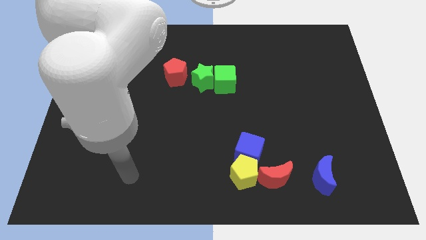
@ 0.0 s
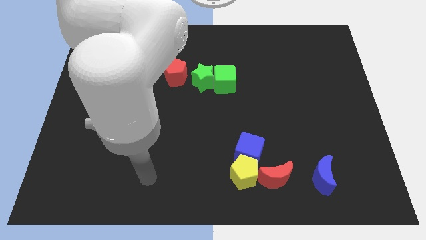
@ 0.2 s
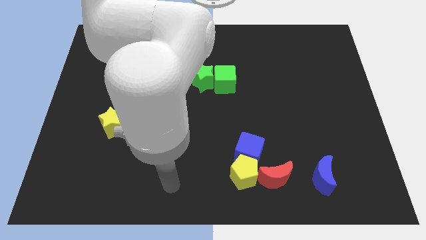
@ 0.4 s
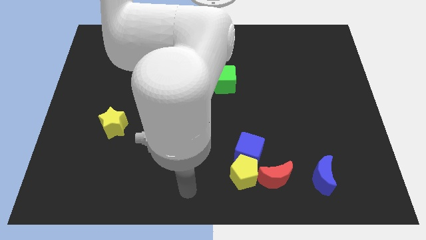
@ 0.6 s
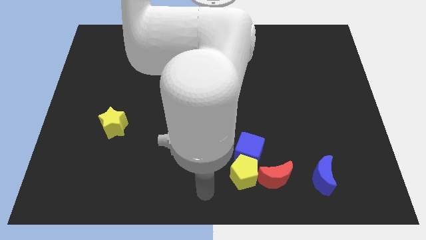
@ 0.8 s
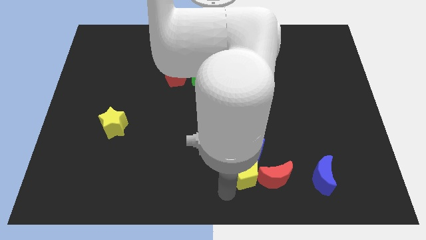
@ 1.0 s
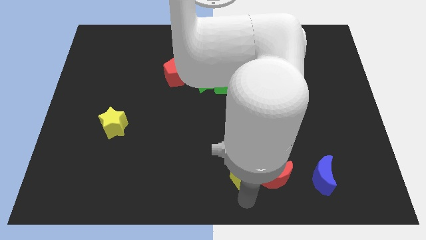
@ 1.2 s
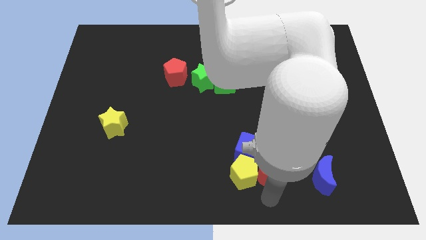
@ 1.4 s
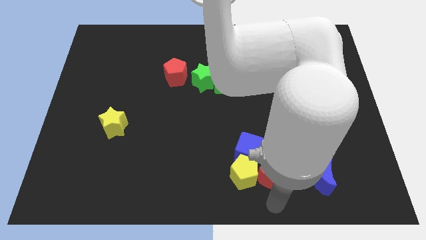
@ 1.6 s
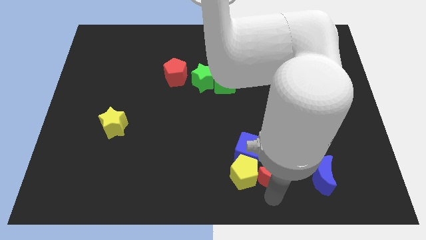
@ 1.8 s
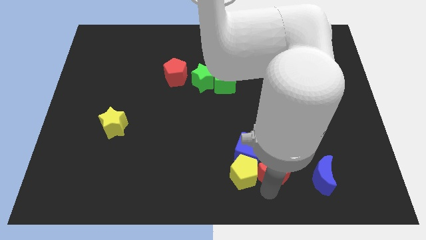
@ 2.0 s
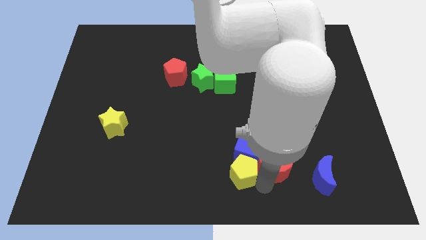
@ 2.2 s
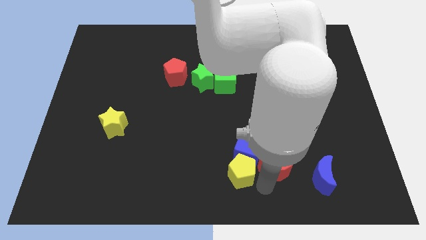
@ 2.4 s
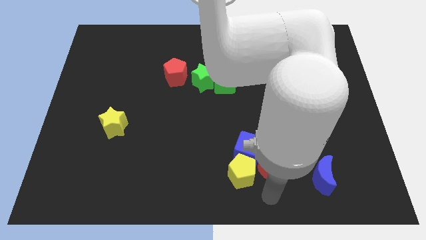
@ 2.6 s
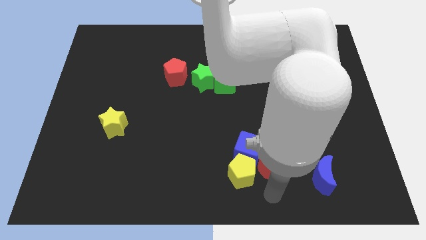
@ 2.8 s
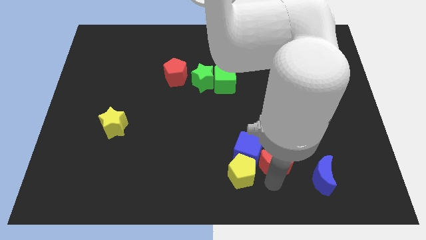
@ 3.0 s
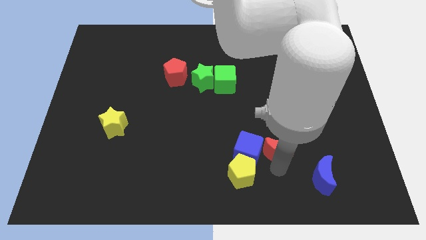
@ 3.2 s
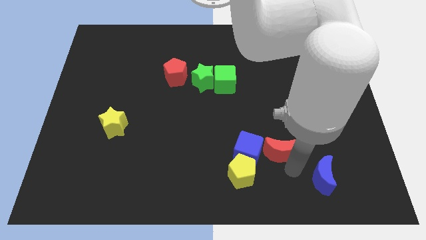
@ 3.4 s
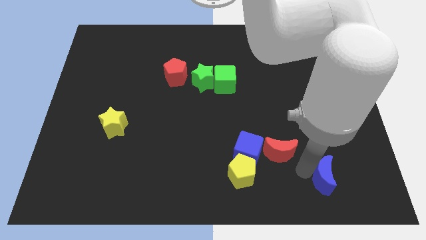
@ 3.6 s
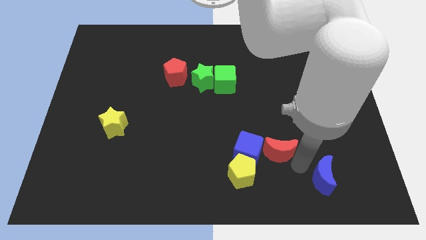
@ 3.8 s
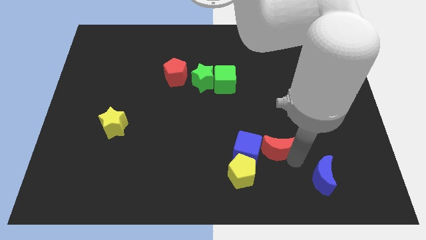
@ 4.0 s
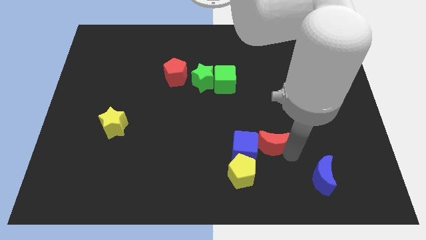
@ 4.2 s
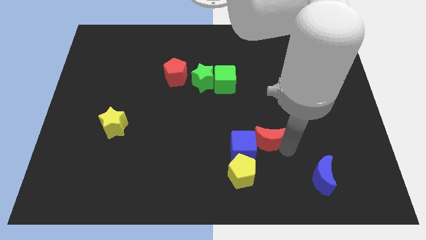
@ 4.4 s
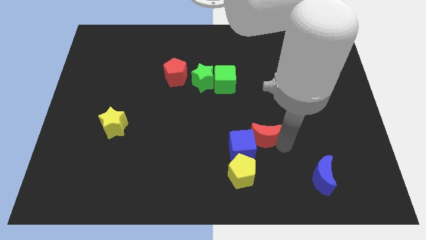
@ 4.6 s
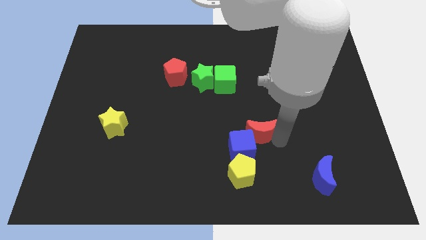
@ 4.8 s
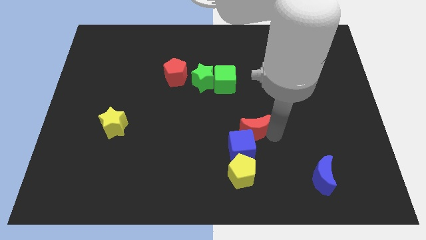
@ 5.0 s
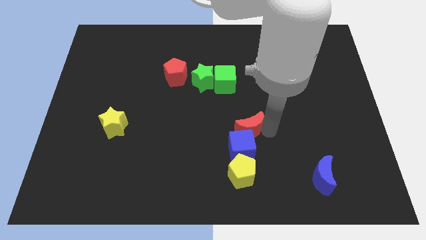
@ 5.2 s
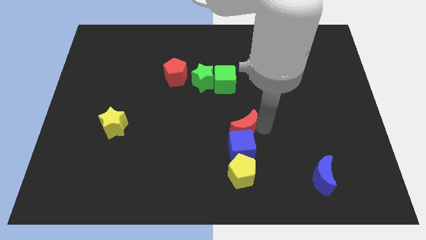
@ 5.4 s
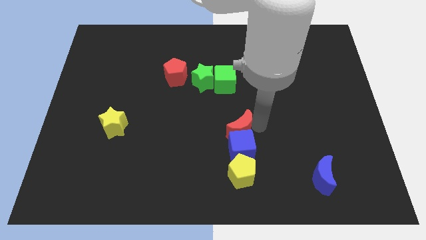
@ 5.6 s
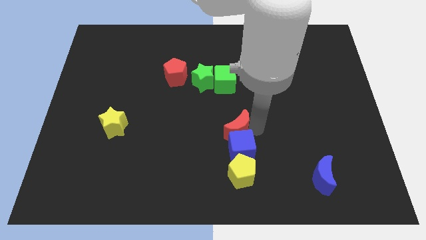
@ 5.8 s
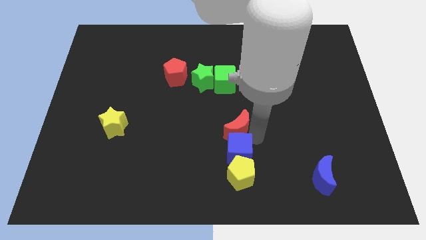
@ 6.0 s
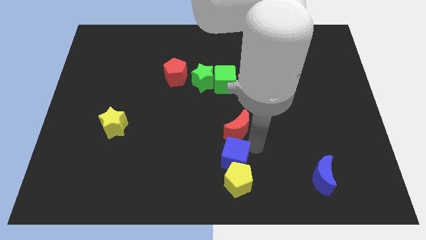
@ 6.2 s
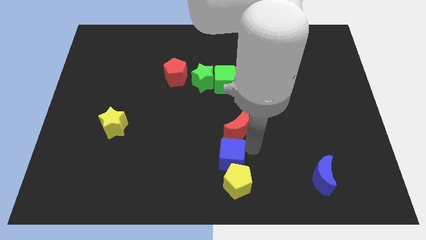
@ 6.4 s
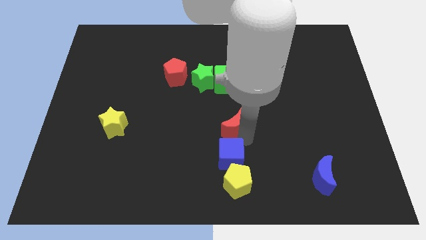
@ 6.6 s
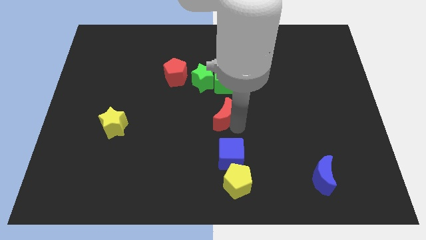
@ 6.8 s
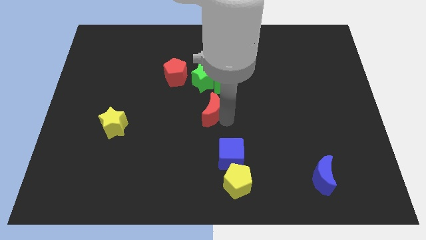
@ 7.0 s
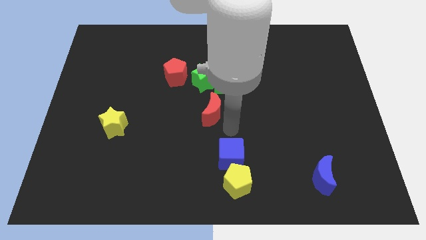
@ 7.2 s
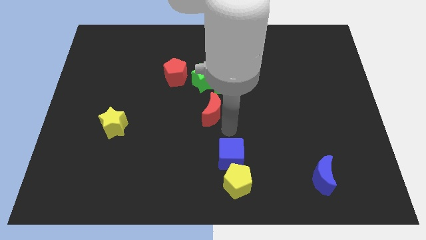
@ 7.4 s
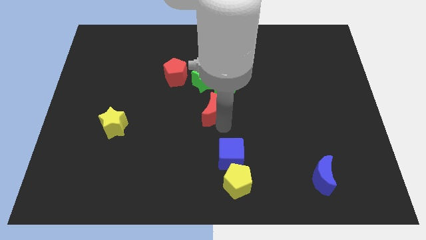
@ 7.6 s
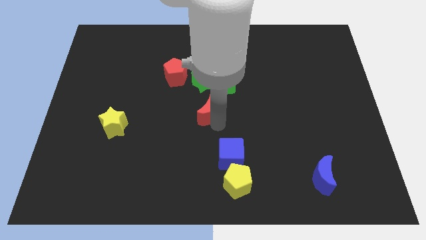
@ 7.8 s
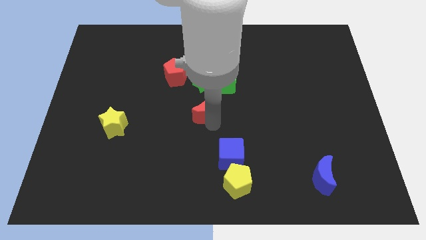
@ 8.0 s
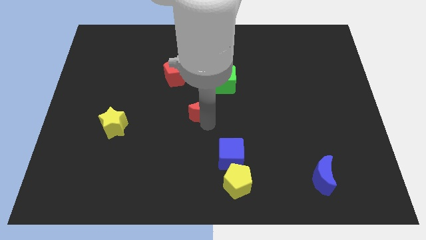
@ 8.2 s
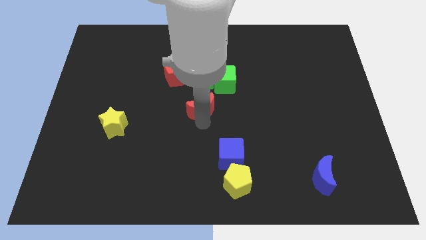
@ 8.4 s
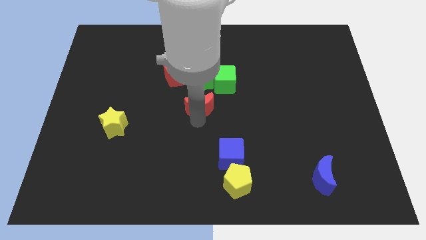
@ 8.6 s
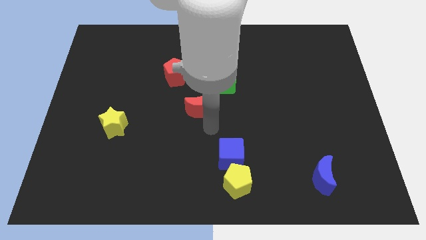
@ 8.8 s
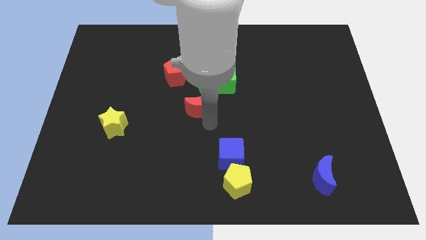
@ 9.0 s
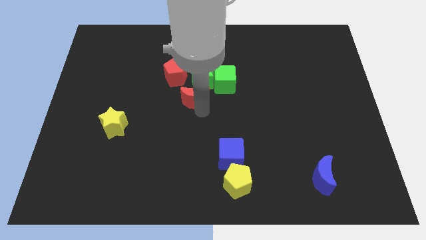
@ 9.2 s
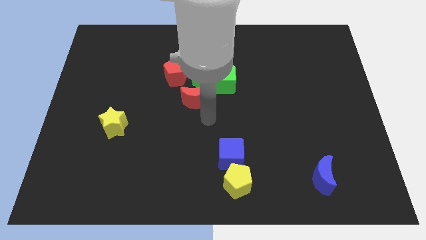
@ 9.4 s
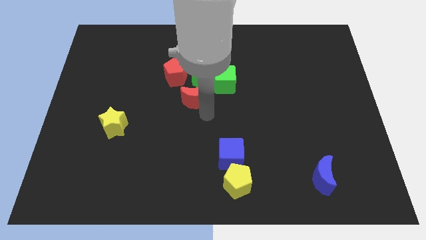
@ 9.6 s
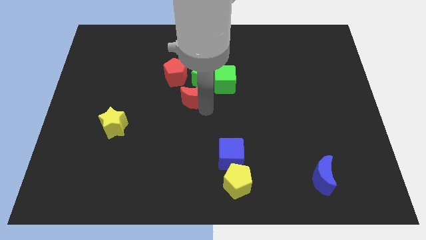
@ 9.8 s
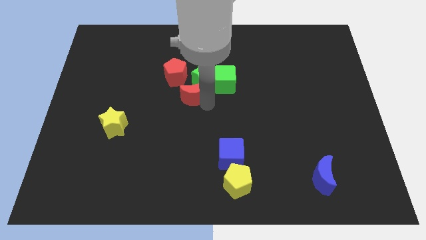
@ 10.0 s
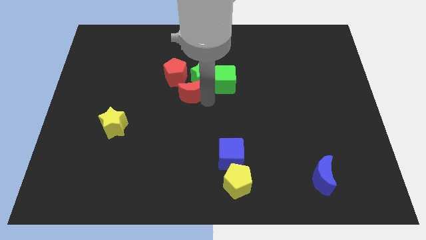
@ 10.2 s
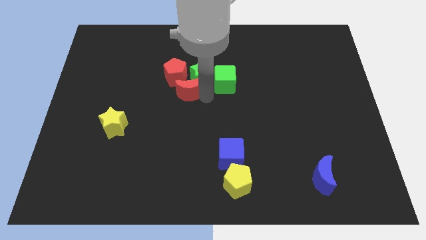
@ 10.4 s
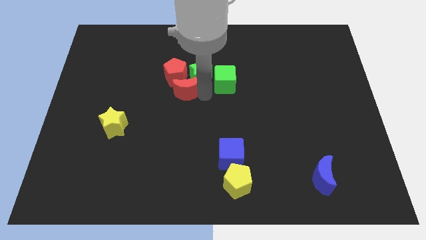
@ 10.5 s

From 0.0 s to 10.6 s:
move the red moon close to the red pentagon

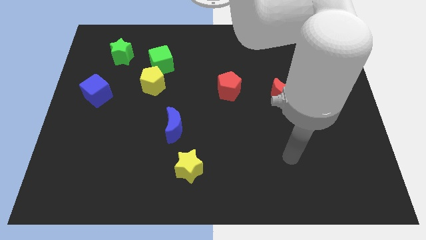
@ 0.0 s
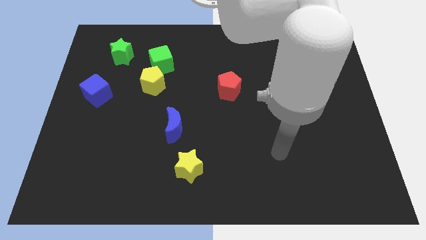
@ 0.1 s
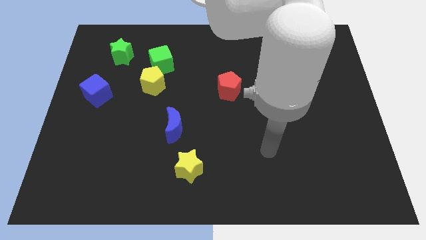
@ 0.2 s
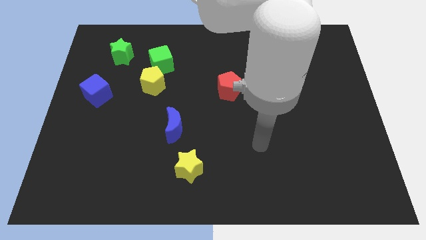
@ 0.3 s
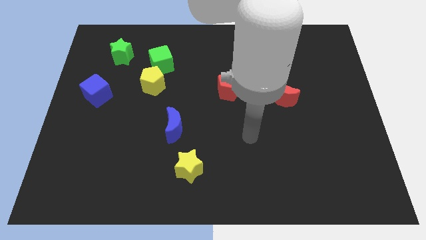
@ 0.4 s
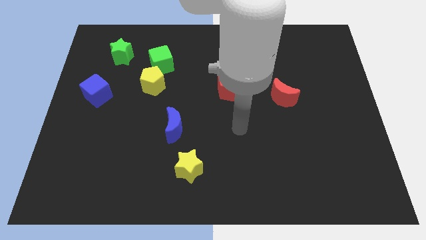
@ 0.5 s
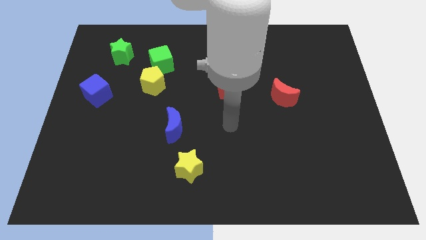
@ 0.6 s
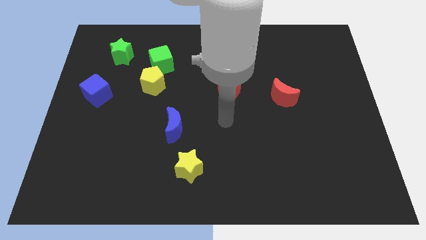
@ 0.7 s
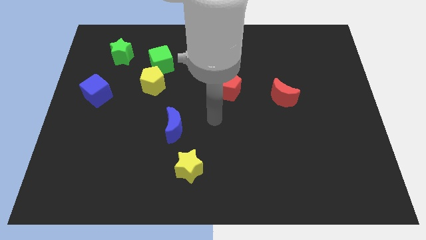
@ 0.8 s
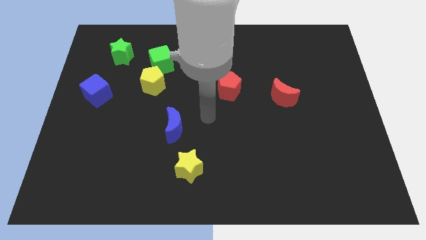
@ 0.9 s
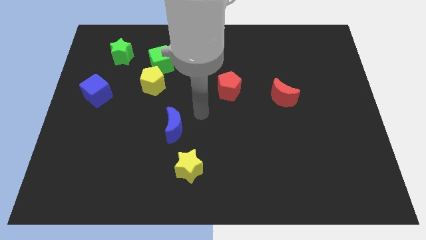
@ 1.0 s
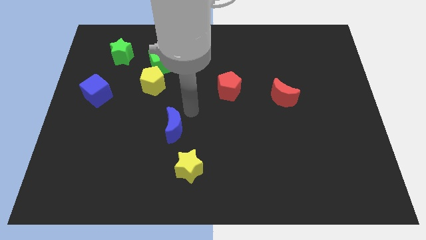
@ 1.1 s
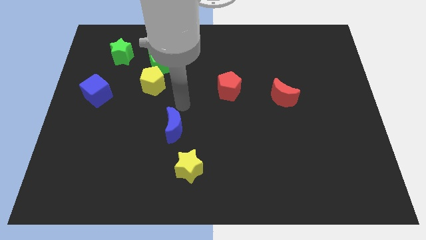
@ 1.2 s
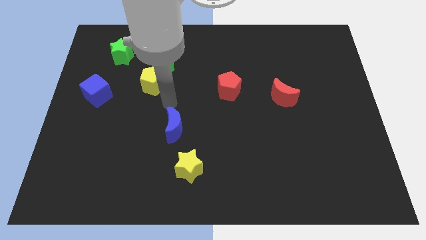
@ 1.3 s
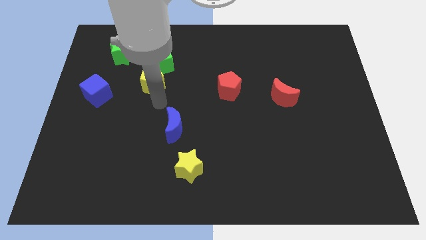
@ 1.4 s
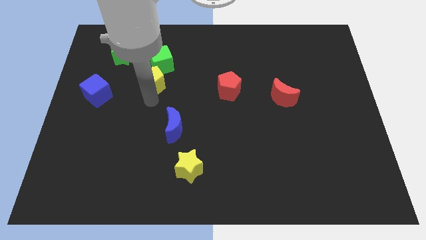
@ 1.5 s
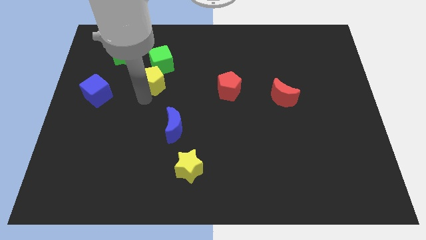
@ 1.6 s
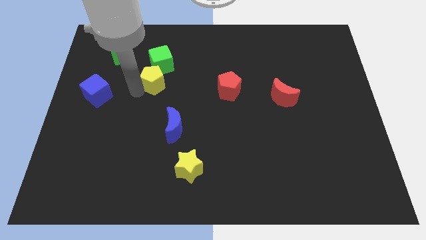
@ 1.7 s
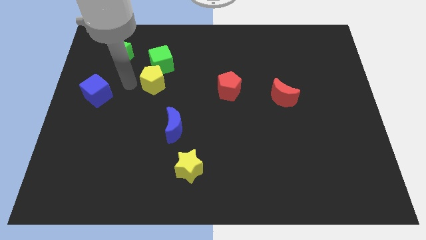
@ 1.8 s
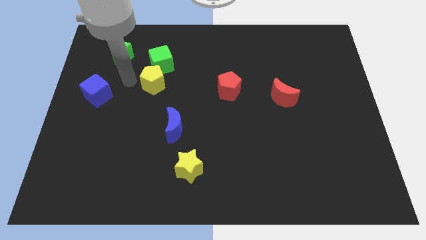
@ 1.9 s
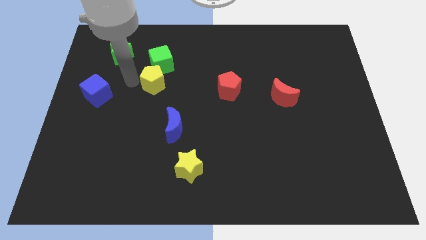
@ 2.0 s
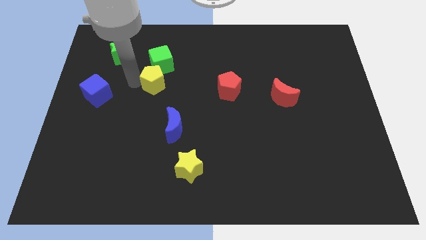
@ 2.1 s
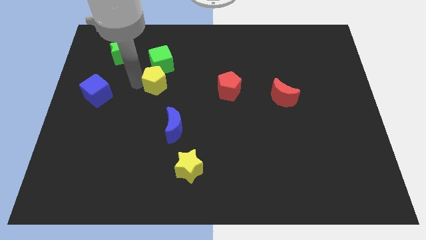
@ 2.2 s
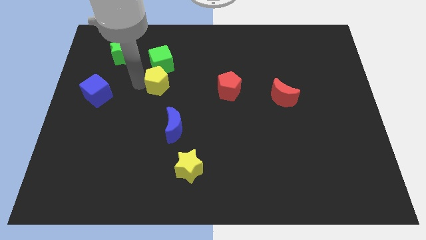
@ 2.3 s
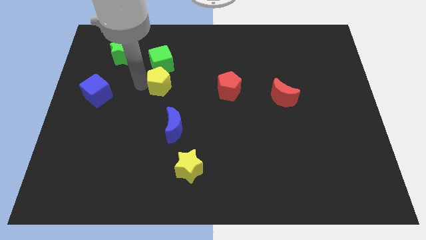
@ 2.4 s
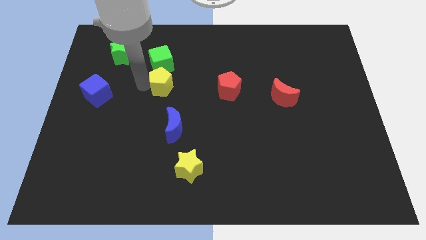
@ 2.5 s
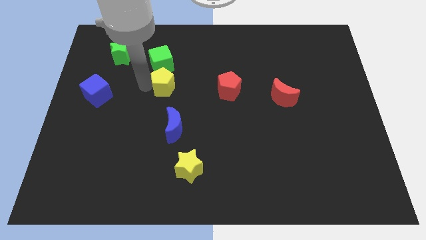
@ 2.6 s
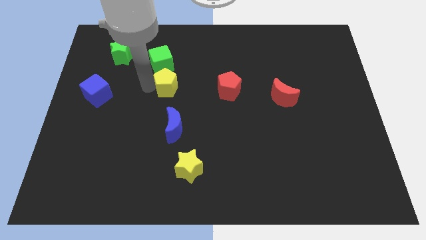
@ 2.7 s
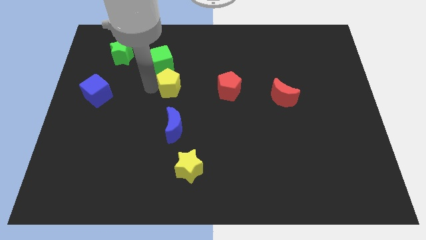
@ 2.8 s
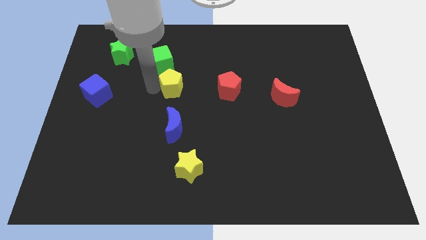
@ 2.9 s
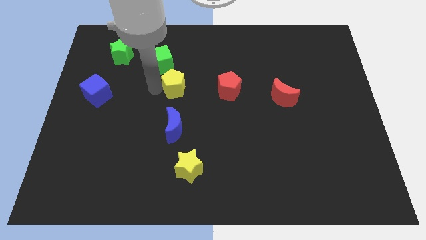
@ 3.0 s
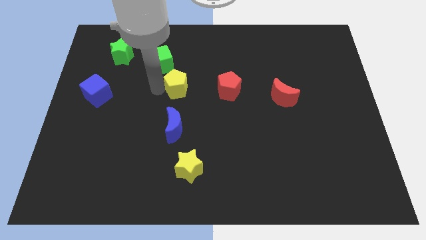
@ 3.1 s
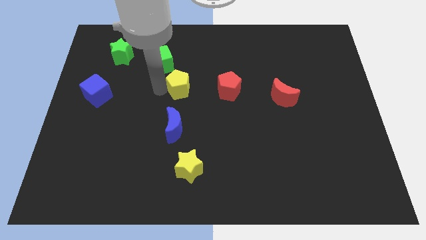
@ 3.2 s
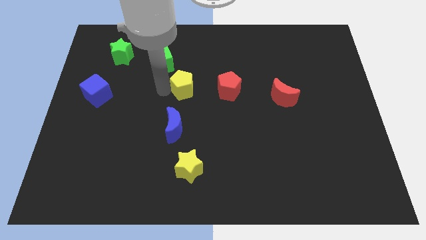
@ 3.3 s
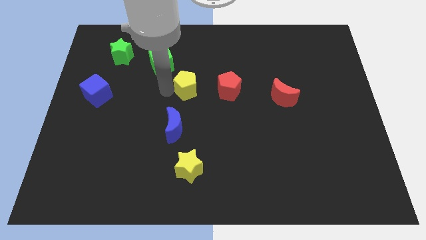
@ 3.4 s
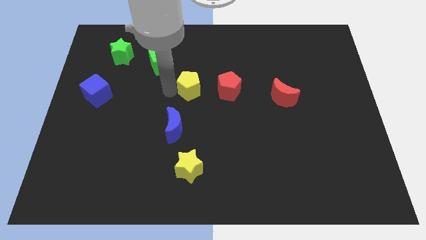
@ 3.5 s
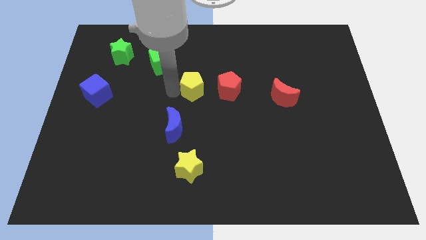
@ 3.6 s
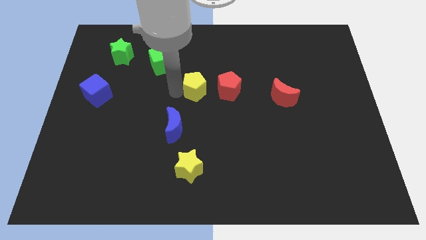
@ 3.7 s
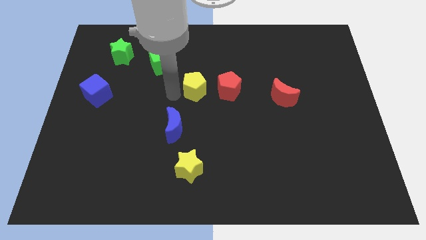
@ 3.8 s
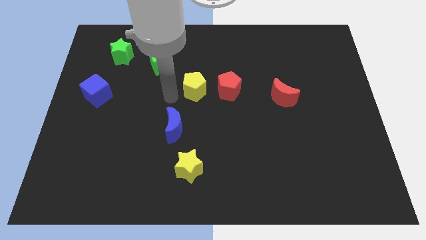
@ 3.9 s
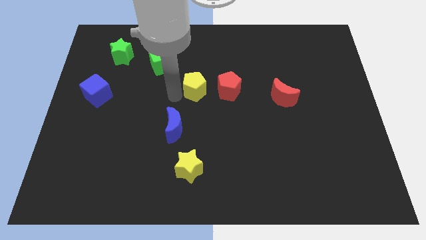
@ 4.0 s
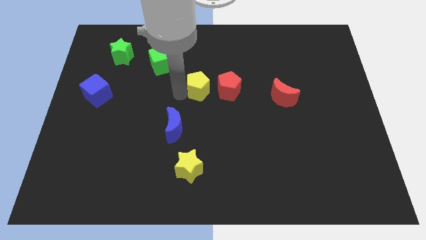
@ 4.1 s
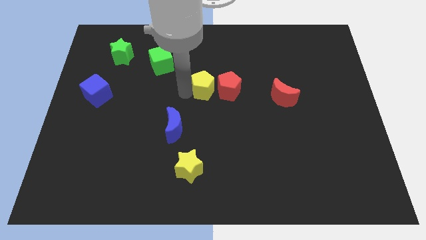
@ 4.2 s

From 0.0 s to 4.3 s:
push the yellow pentagon next to the red pentagon
